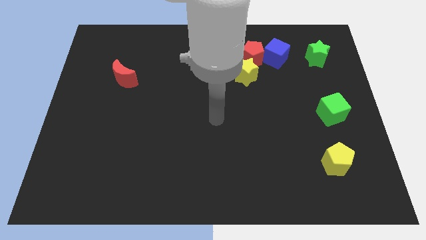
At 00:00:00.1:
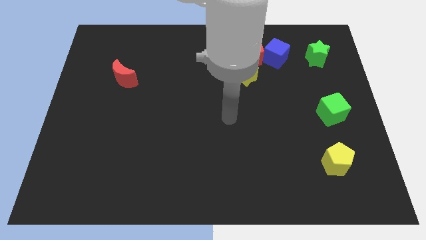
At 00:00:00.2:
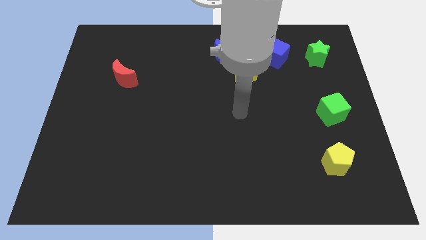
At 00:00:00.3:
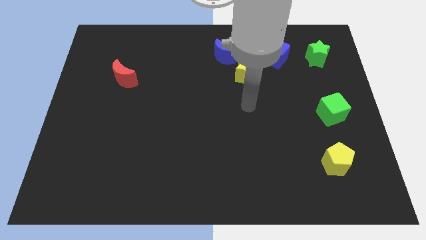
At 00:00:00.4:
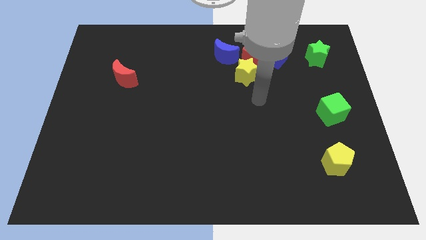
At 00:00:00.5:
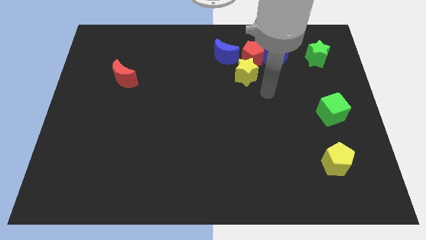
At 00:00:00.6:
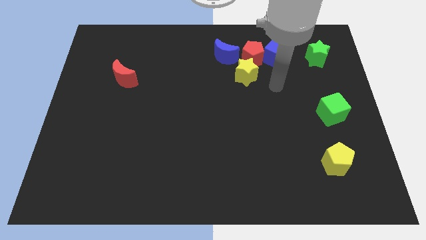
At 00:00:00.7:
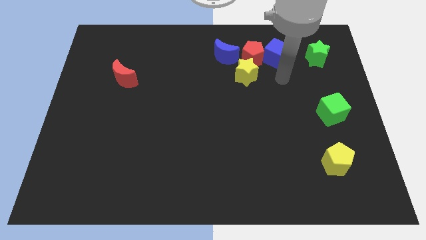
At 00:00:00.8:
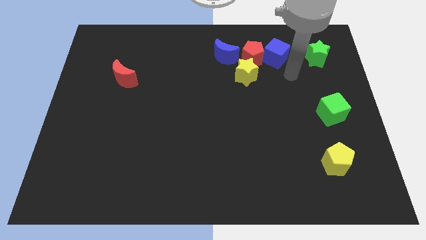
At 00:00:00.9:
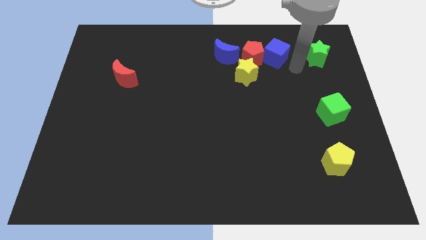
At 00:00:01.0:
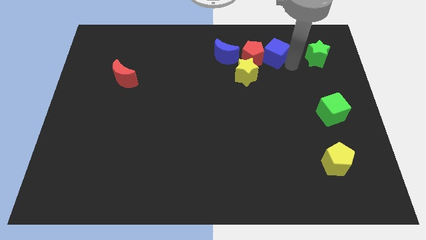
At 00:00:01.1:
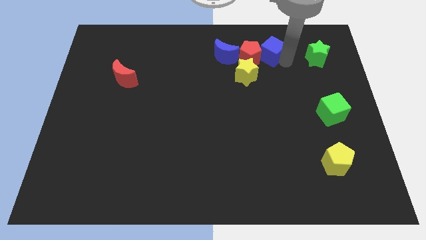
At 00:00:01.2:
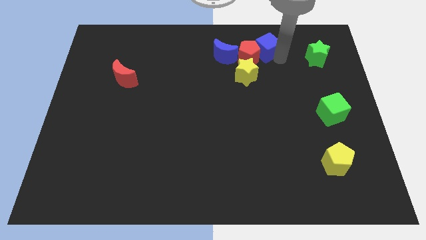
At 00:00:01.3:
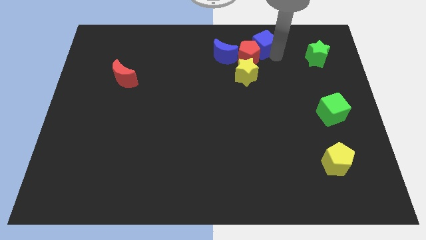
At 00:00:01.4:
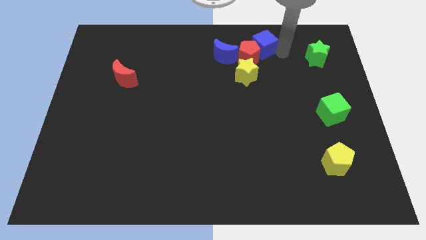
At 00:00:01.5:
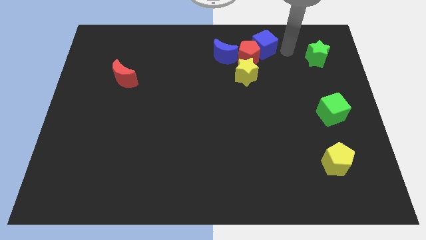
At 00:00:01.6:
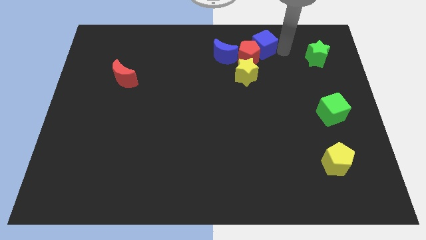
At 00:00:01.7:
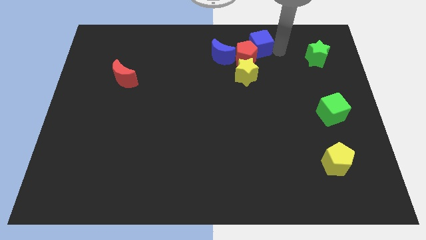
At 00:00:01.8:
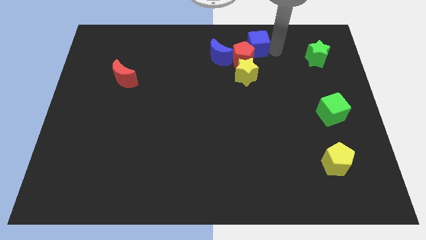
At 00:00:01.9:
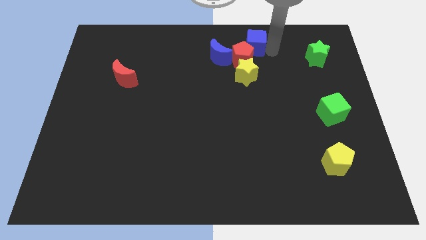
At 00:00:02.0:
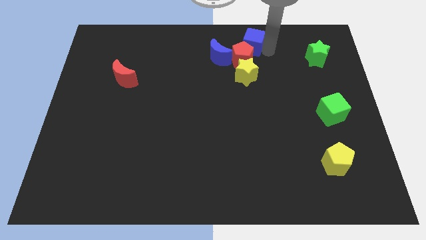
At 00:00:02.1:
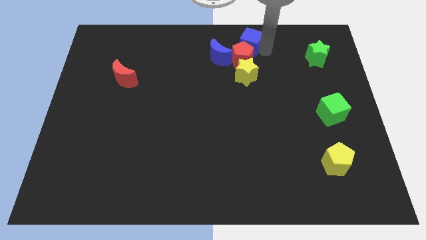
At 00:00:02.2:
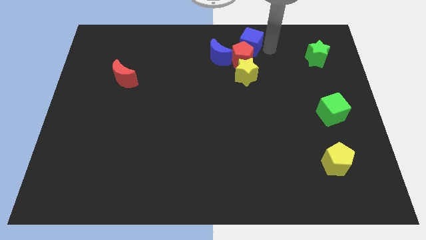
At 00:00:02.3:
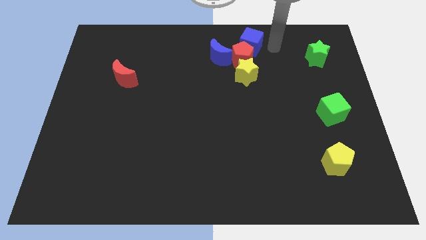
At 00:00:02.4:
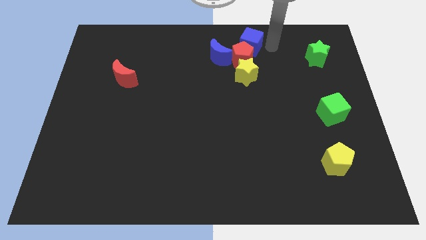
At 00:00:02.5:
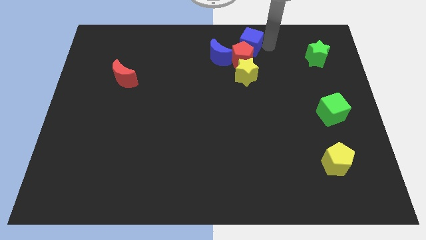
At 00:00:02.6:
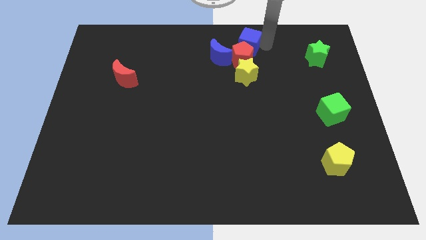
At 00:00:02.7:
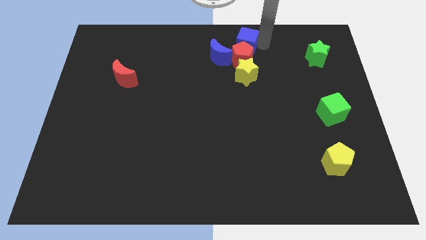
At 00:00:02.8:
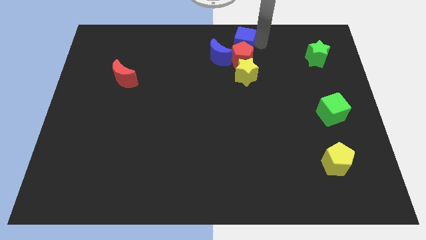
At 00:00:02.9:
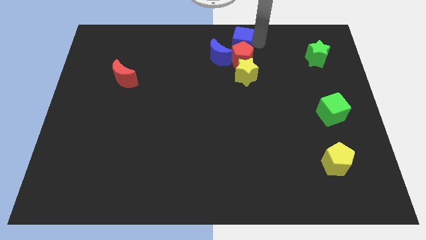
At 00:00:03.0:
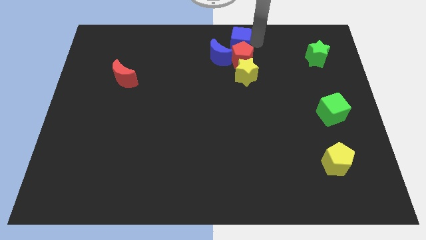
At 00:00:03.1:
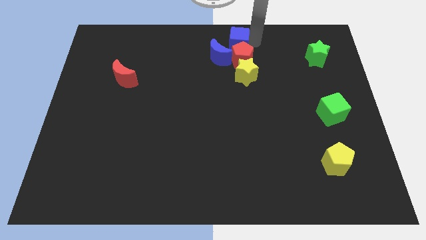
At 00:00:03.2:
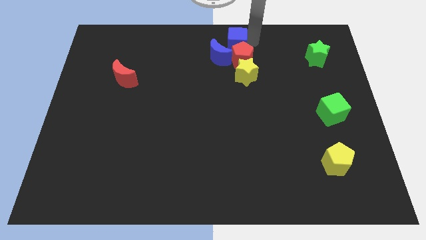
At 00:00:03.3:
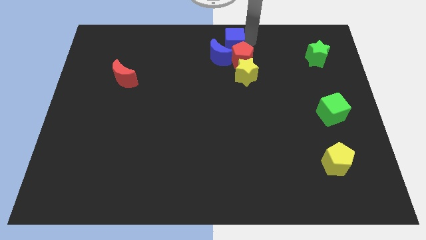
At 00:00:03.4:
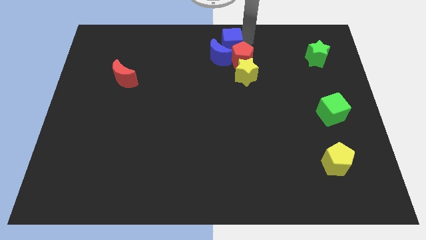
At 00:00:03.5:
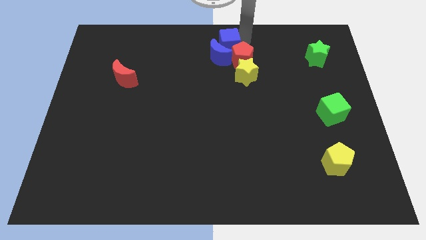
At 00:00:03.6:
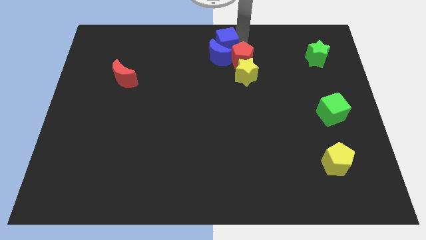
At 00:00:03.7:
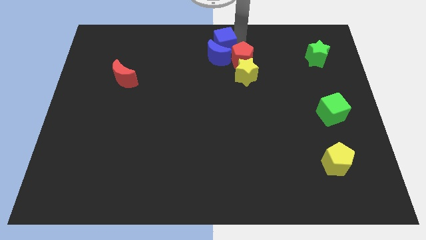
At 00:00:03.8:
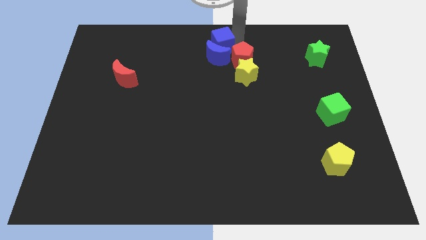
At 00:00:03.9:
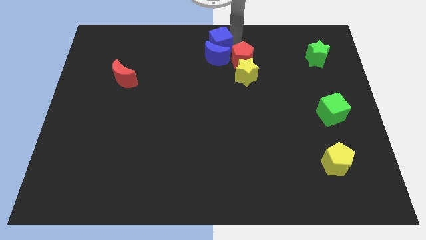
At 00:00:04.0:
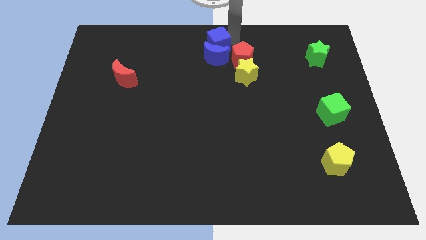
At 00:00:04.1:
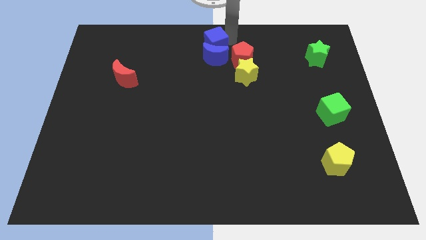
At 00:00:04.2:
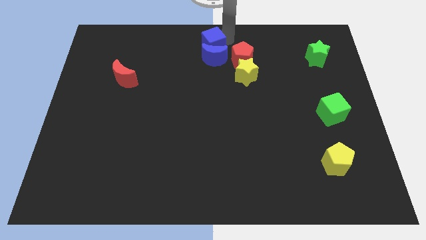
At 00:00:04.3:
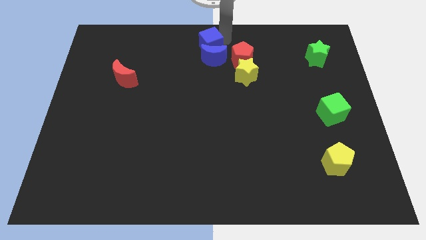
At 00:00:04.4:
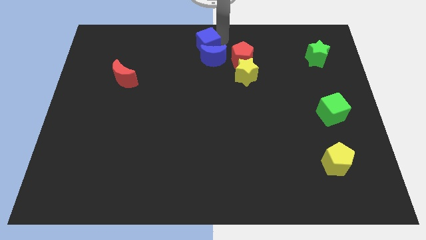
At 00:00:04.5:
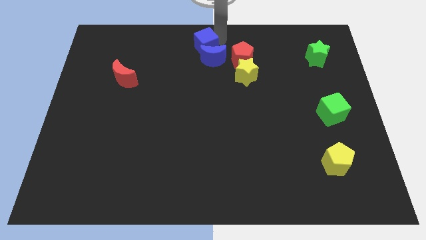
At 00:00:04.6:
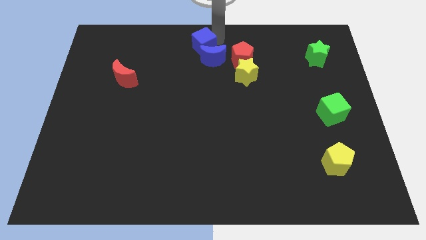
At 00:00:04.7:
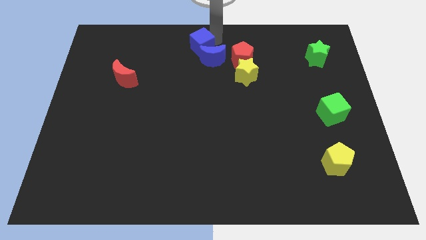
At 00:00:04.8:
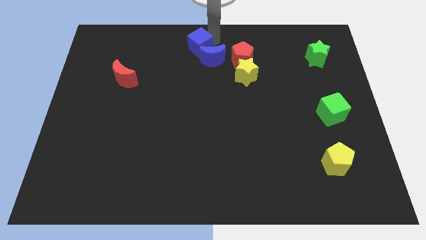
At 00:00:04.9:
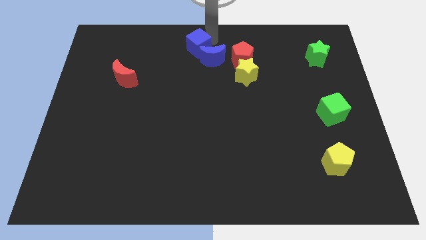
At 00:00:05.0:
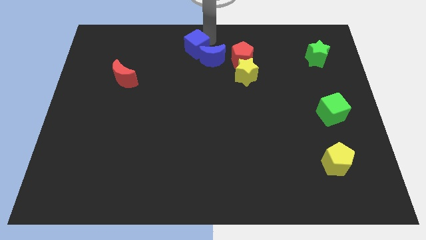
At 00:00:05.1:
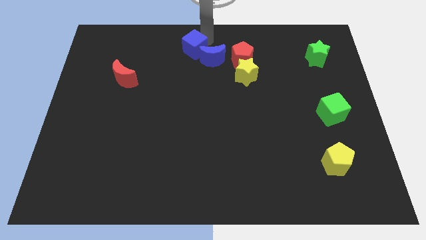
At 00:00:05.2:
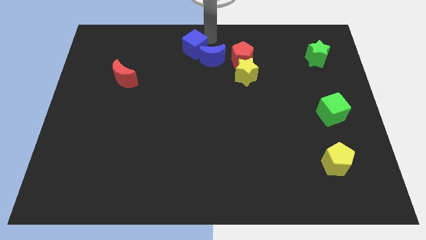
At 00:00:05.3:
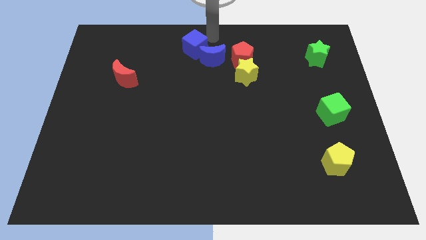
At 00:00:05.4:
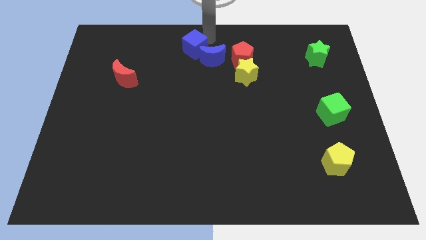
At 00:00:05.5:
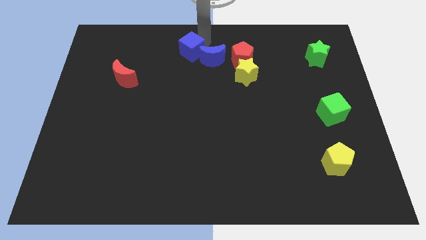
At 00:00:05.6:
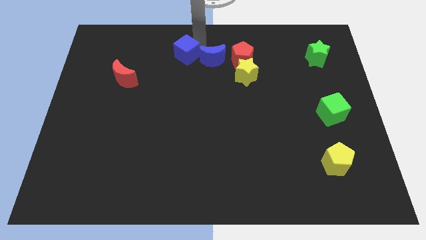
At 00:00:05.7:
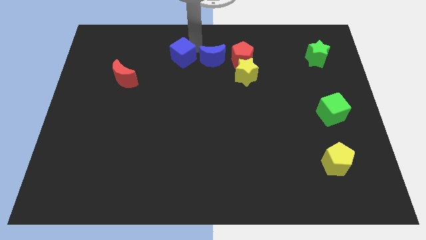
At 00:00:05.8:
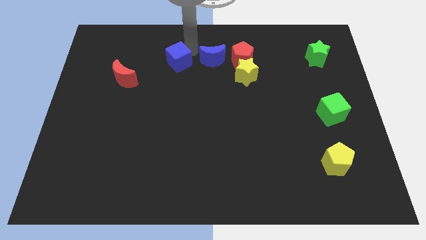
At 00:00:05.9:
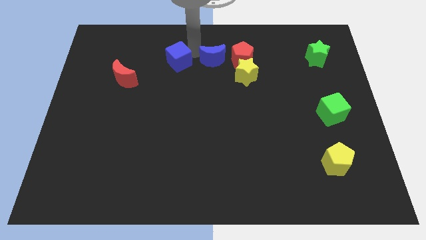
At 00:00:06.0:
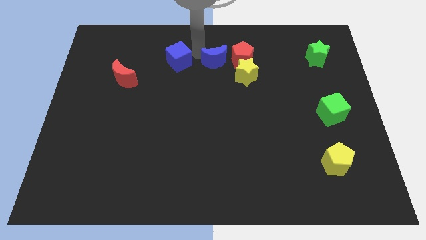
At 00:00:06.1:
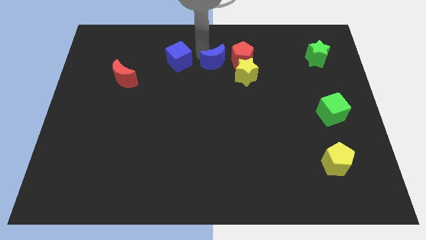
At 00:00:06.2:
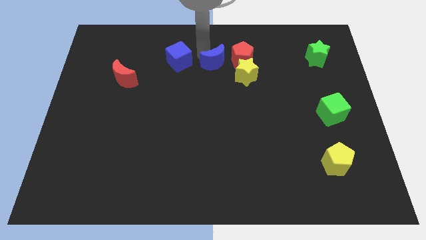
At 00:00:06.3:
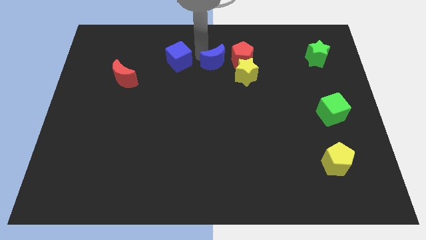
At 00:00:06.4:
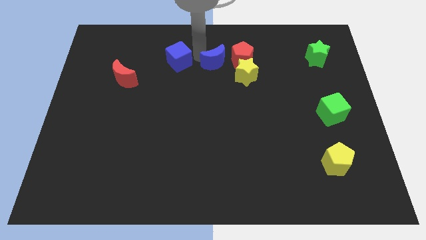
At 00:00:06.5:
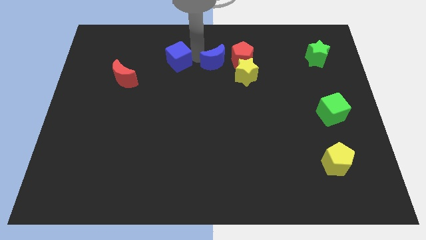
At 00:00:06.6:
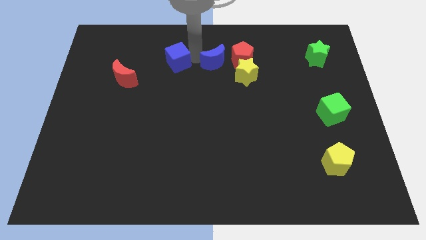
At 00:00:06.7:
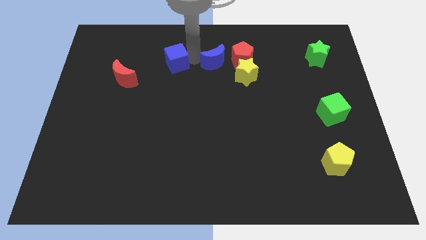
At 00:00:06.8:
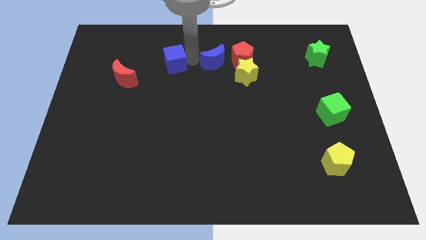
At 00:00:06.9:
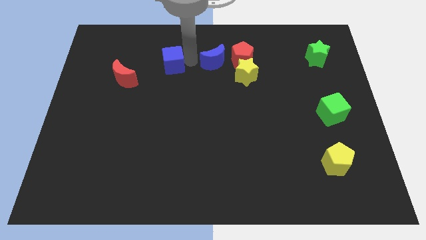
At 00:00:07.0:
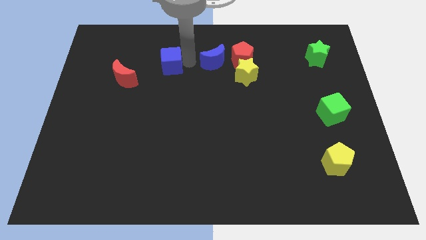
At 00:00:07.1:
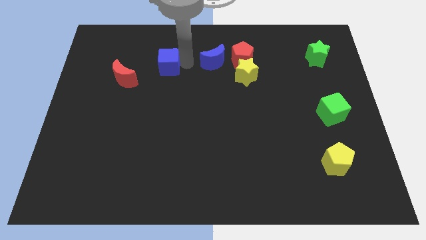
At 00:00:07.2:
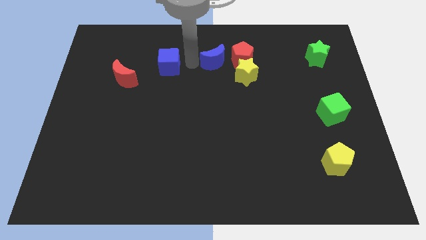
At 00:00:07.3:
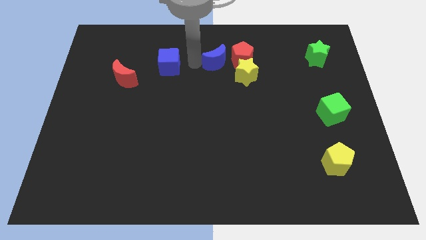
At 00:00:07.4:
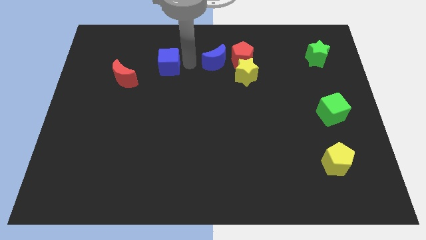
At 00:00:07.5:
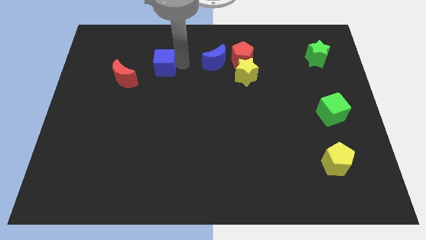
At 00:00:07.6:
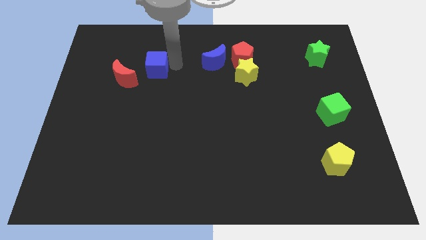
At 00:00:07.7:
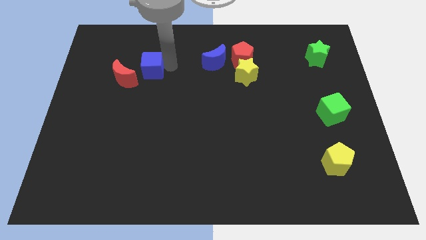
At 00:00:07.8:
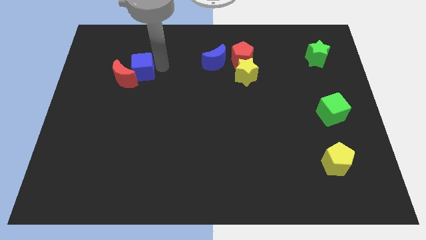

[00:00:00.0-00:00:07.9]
slide the blue cube to the red moon
